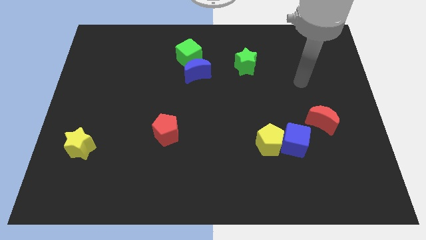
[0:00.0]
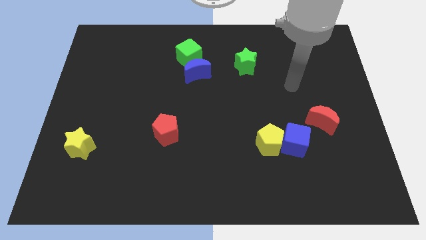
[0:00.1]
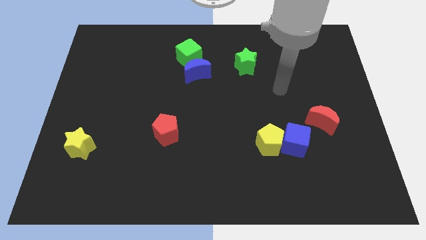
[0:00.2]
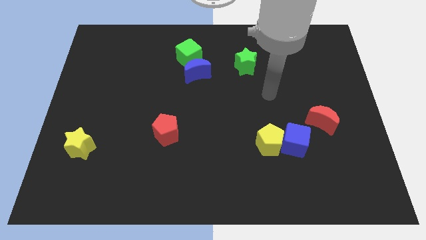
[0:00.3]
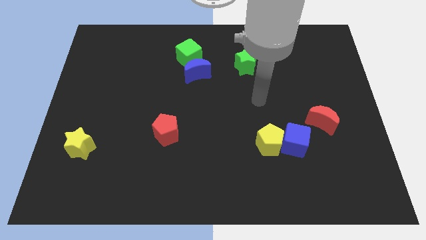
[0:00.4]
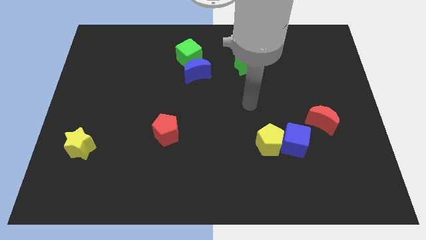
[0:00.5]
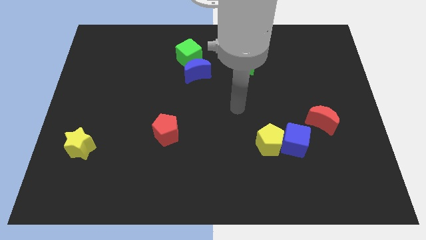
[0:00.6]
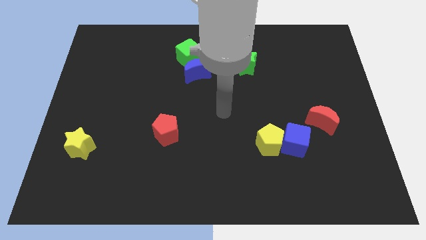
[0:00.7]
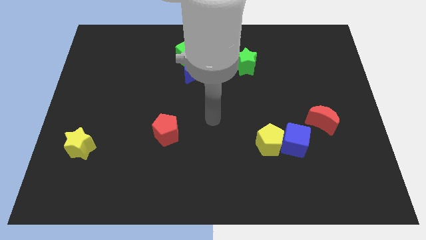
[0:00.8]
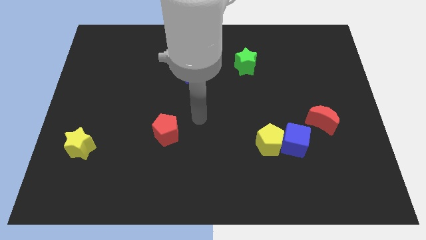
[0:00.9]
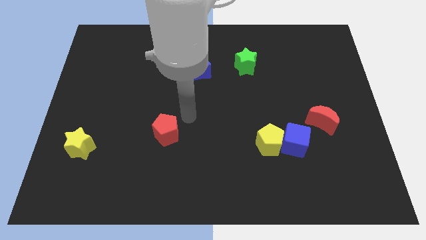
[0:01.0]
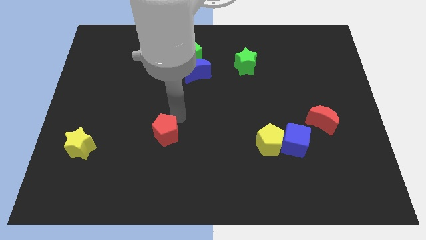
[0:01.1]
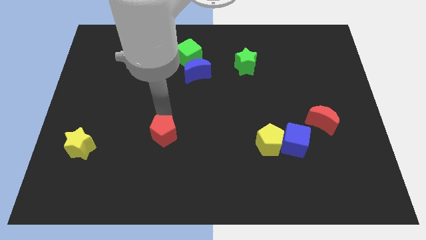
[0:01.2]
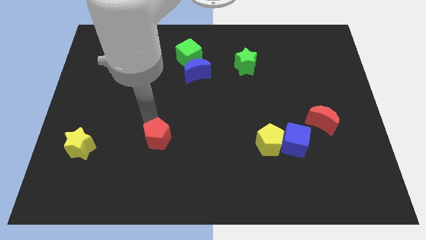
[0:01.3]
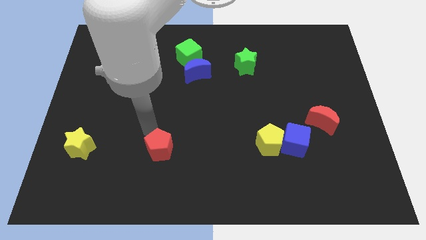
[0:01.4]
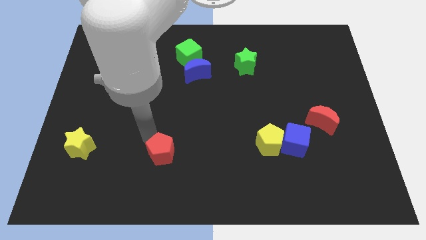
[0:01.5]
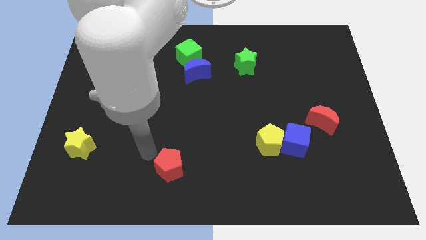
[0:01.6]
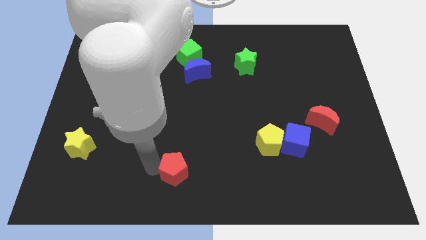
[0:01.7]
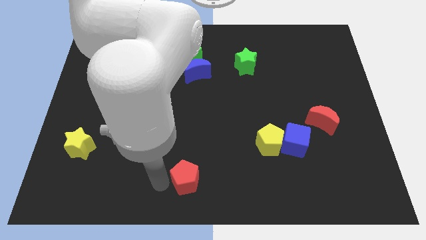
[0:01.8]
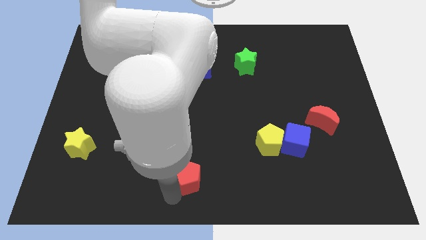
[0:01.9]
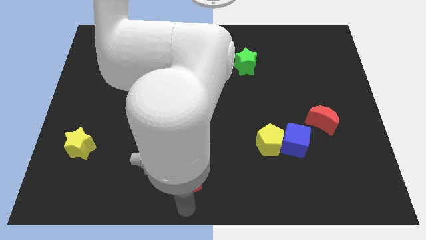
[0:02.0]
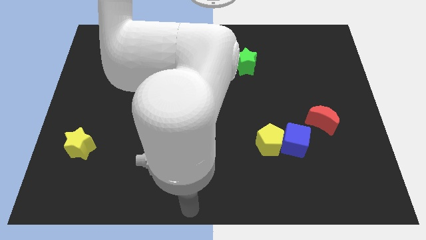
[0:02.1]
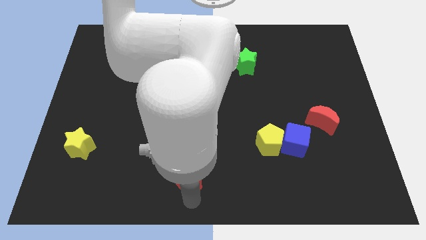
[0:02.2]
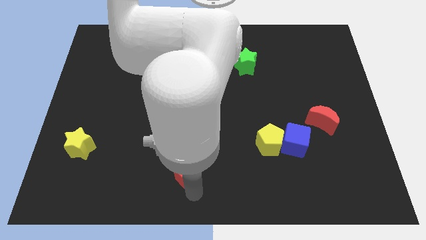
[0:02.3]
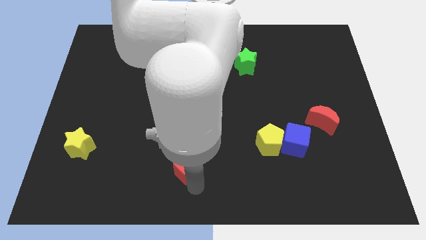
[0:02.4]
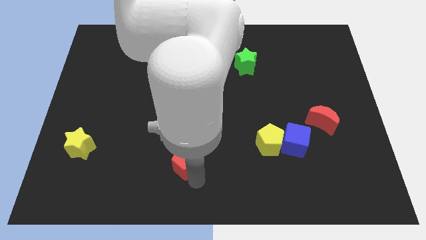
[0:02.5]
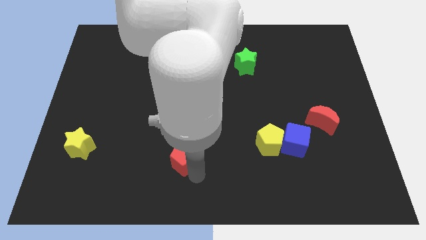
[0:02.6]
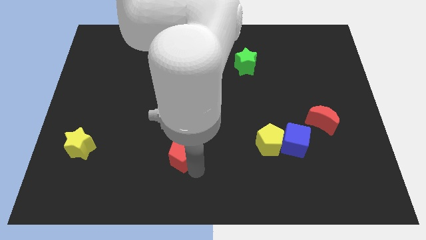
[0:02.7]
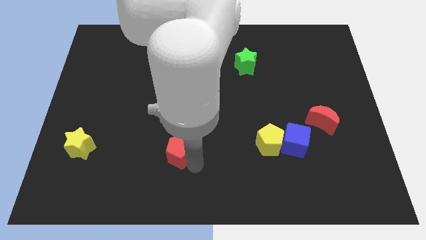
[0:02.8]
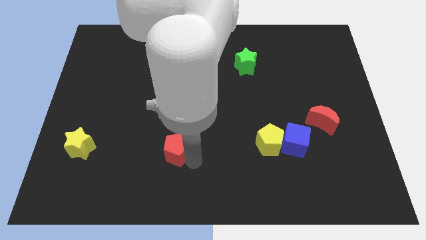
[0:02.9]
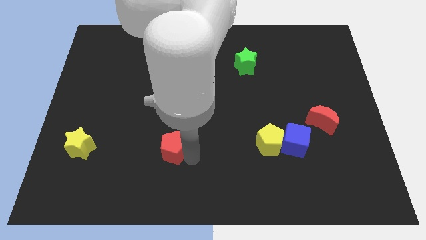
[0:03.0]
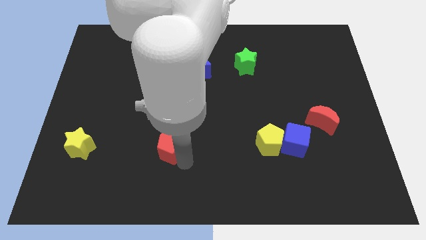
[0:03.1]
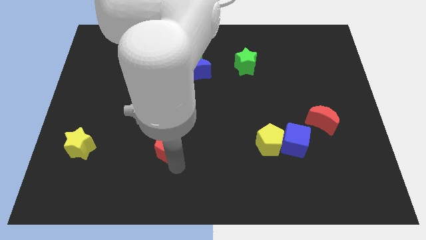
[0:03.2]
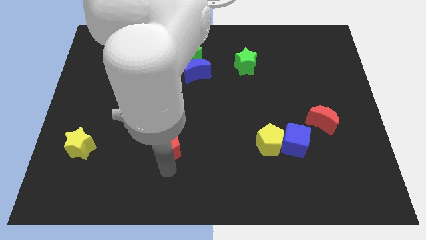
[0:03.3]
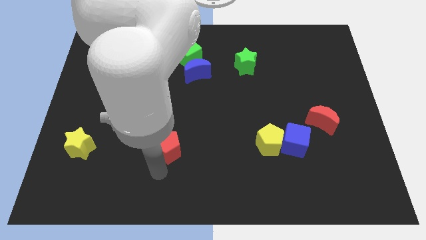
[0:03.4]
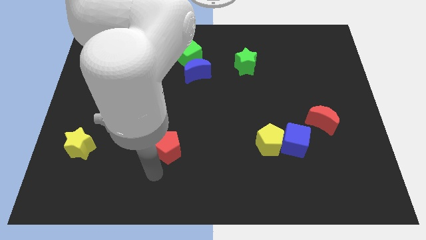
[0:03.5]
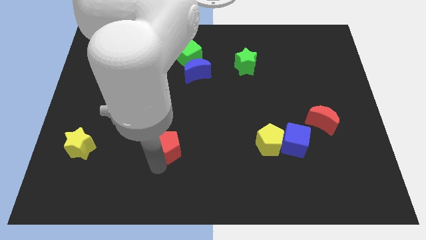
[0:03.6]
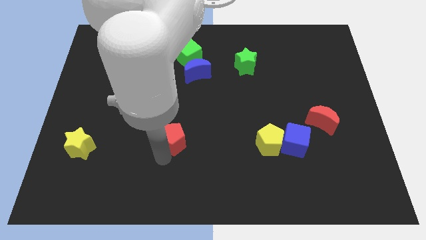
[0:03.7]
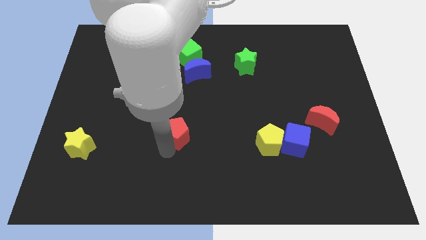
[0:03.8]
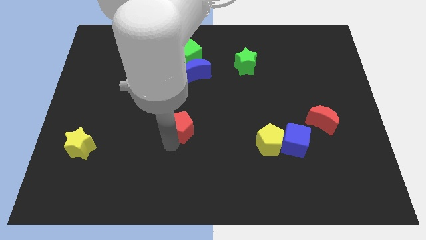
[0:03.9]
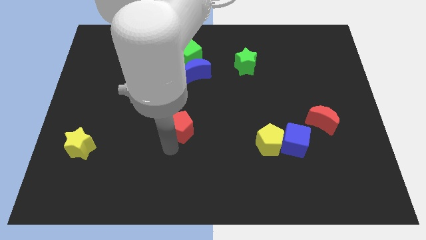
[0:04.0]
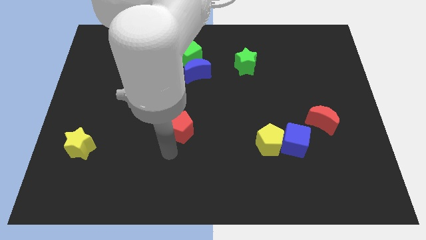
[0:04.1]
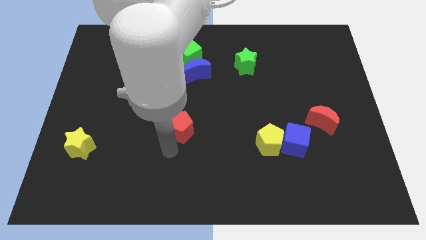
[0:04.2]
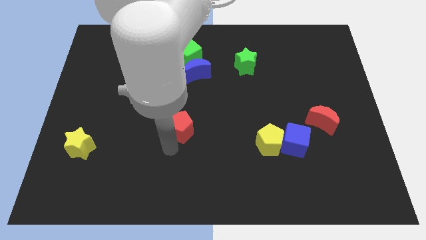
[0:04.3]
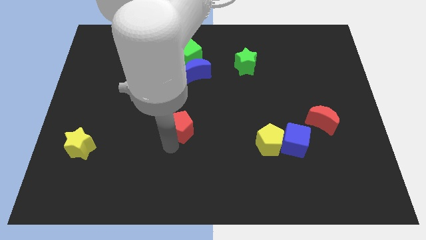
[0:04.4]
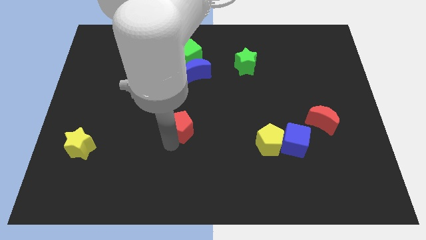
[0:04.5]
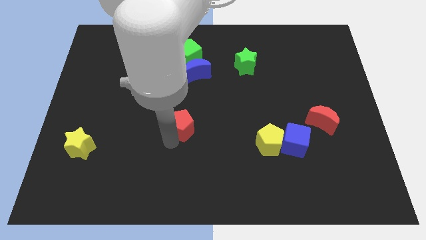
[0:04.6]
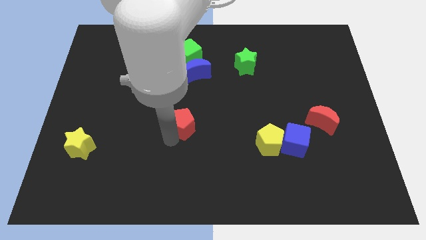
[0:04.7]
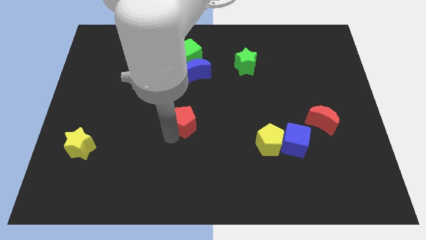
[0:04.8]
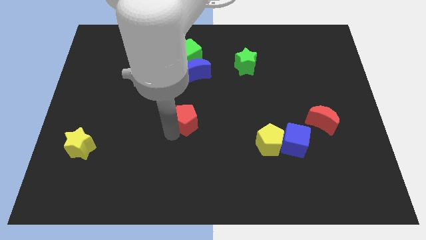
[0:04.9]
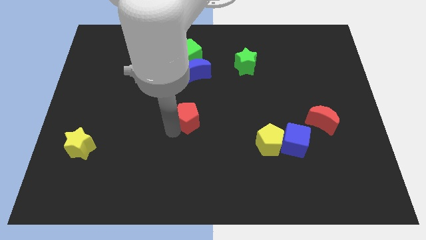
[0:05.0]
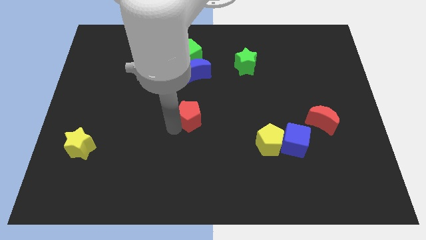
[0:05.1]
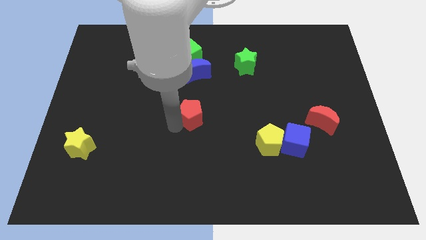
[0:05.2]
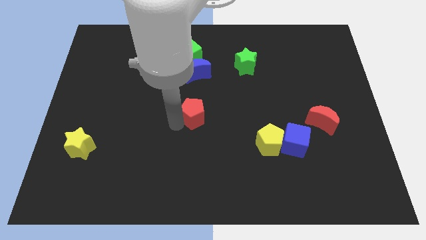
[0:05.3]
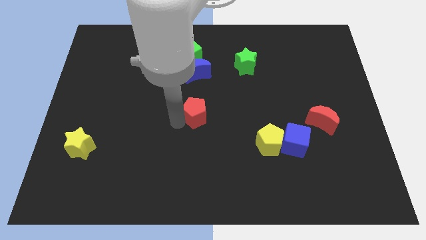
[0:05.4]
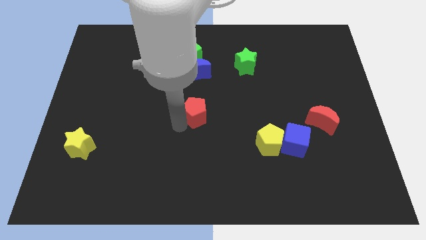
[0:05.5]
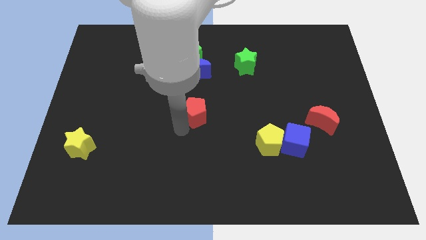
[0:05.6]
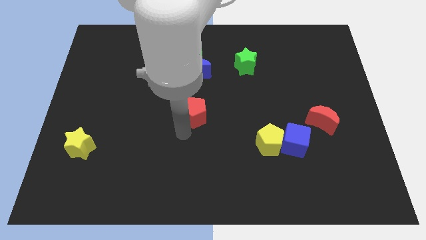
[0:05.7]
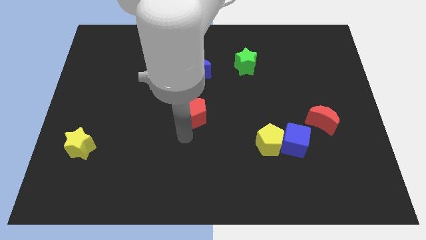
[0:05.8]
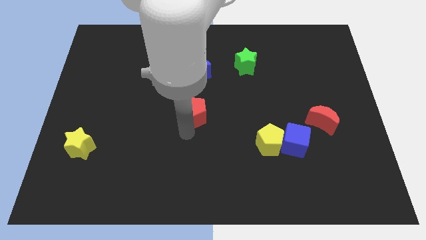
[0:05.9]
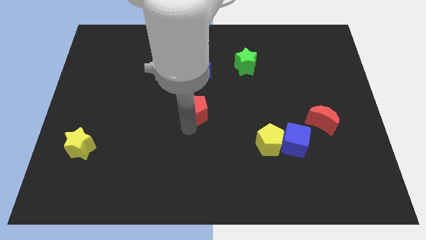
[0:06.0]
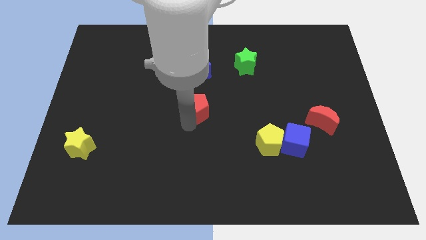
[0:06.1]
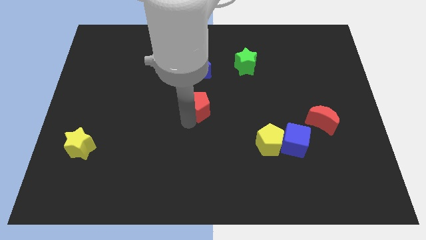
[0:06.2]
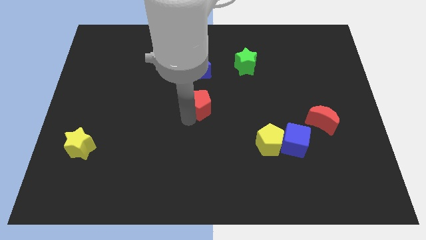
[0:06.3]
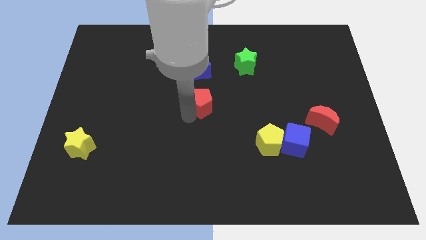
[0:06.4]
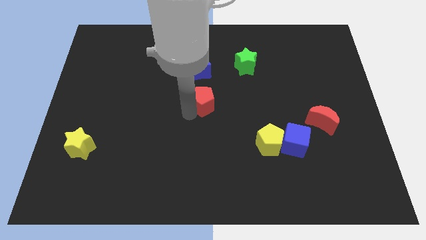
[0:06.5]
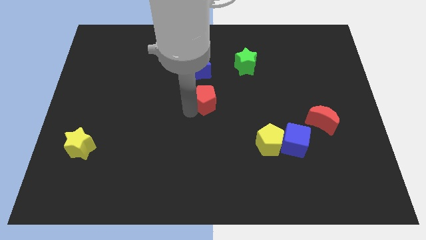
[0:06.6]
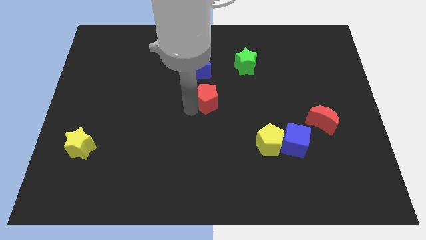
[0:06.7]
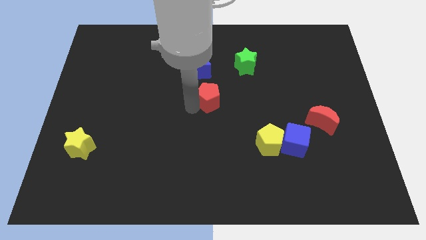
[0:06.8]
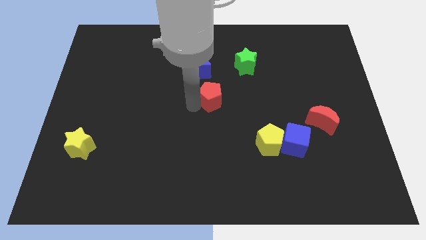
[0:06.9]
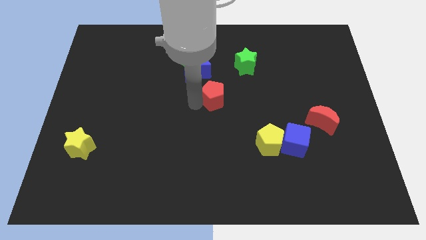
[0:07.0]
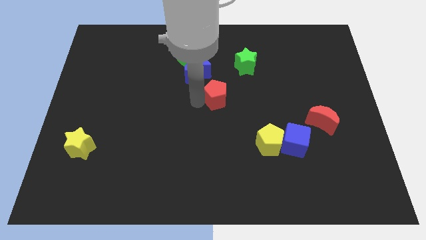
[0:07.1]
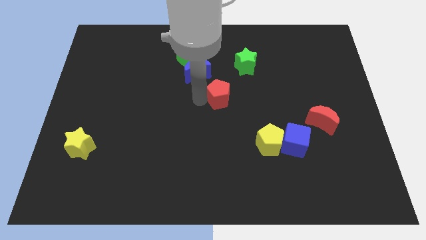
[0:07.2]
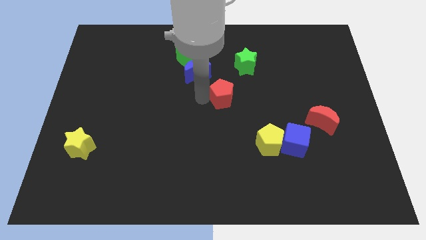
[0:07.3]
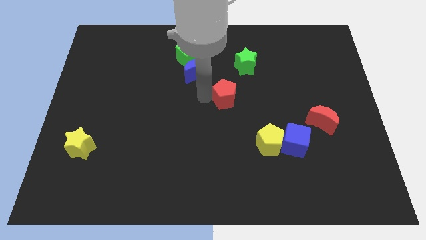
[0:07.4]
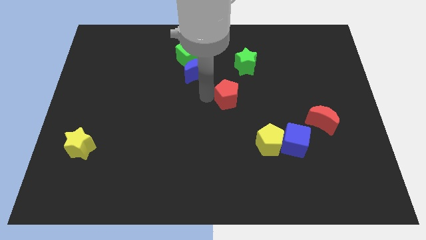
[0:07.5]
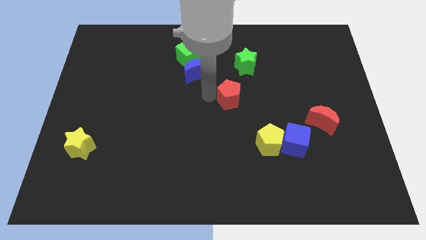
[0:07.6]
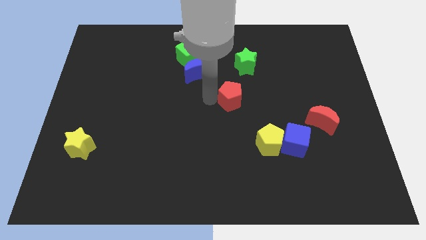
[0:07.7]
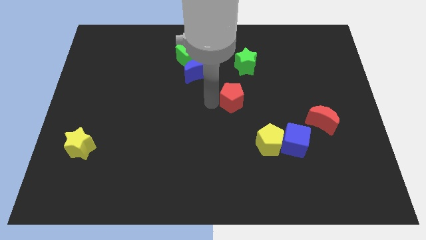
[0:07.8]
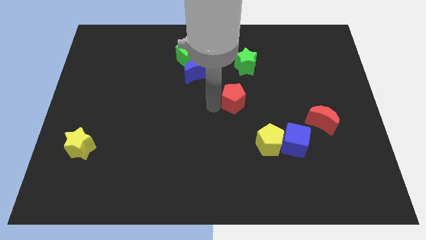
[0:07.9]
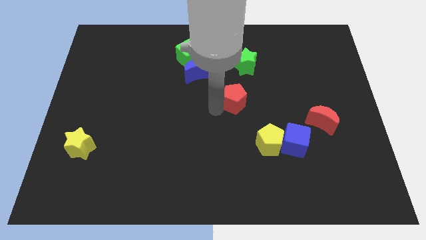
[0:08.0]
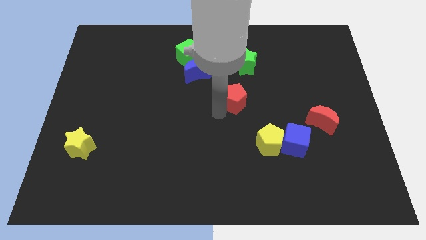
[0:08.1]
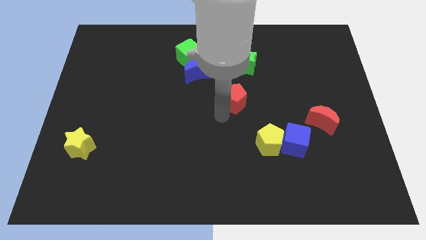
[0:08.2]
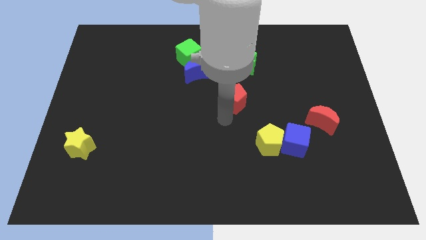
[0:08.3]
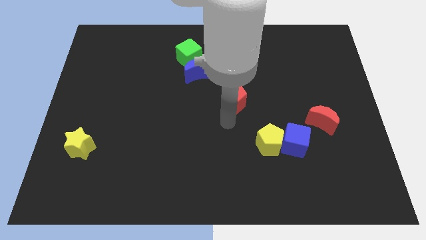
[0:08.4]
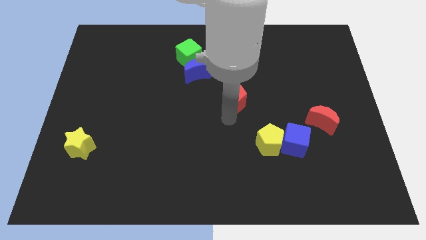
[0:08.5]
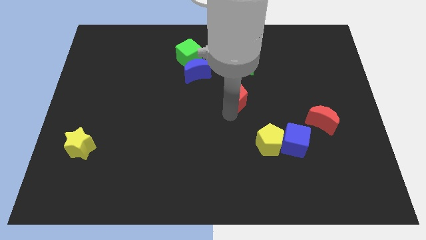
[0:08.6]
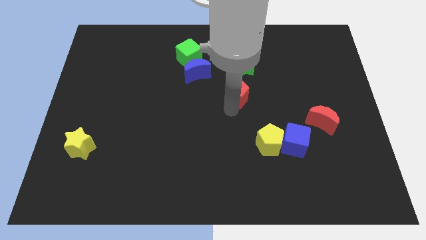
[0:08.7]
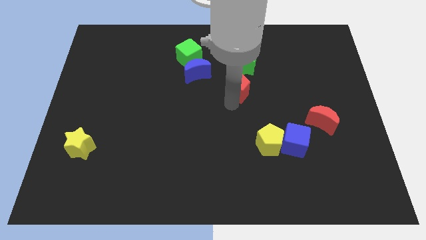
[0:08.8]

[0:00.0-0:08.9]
slide the red pentagon up and then right
